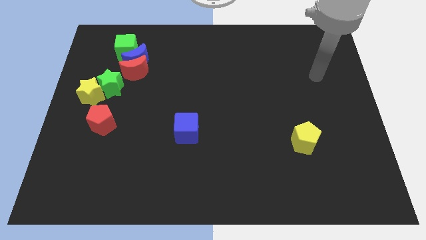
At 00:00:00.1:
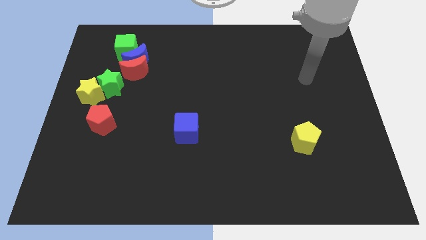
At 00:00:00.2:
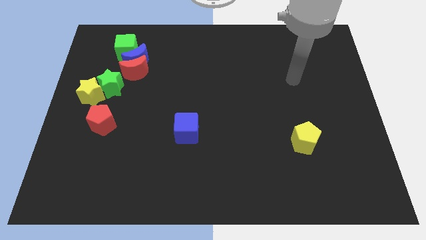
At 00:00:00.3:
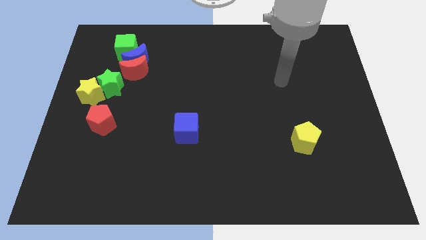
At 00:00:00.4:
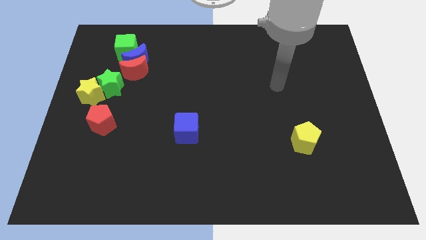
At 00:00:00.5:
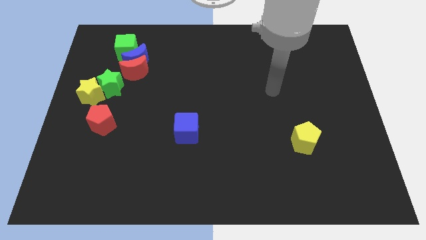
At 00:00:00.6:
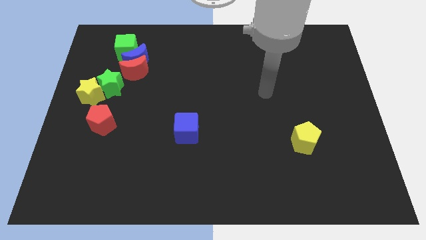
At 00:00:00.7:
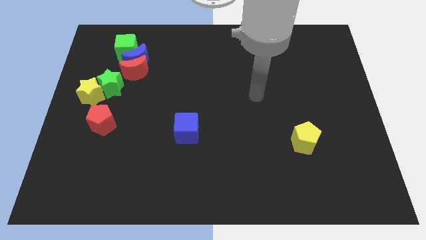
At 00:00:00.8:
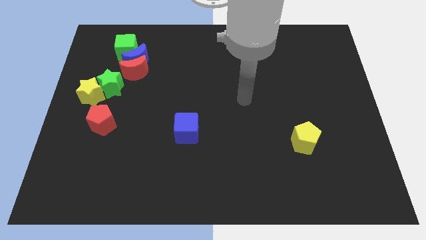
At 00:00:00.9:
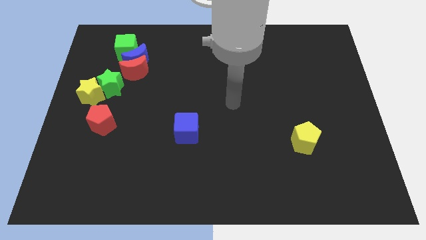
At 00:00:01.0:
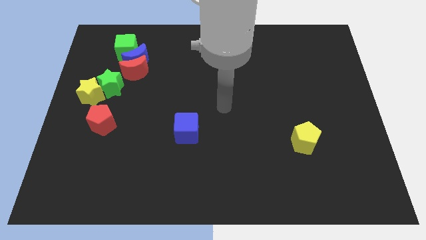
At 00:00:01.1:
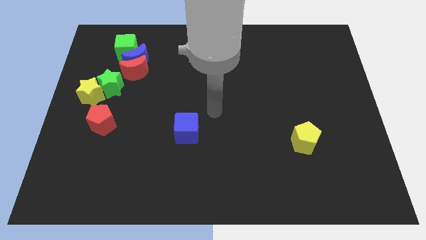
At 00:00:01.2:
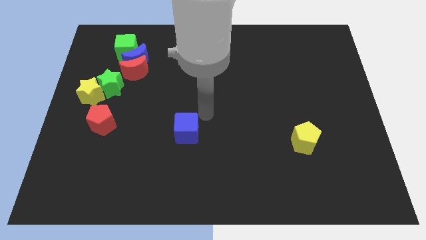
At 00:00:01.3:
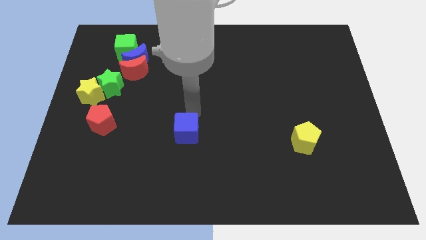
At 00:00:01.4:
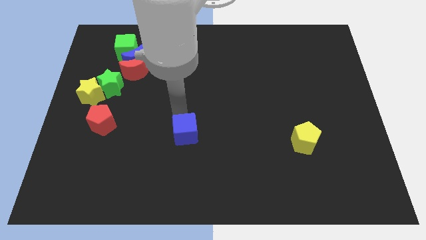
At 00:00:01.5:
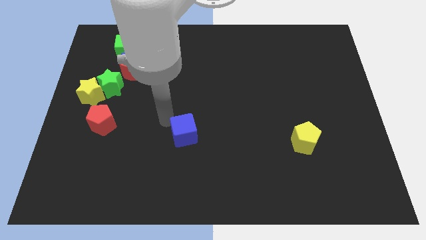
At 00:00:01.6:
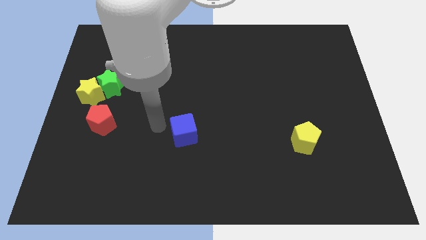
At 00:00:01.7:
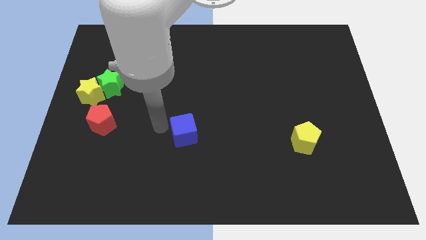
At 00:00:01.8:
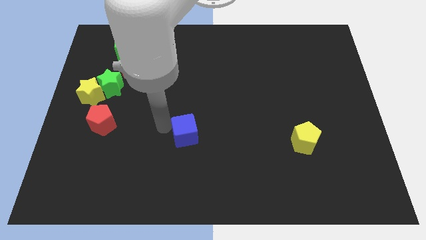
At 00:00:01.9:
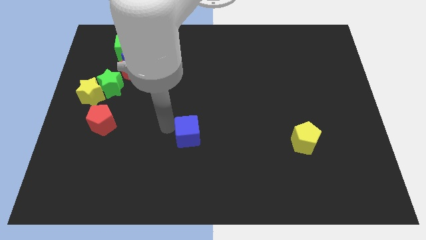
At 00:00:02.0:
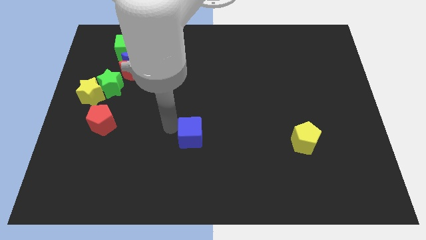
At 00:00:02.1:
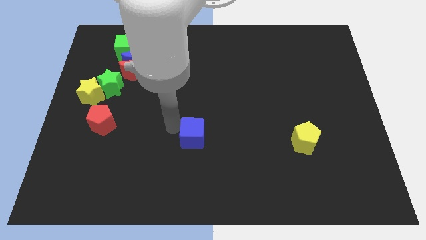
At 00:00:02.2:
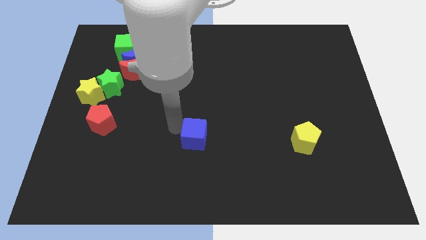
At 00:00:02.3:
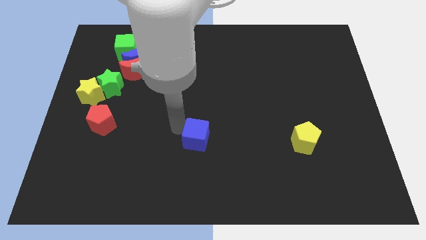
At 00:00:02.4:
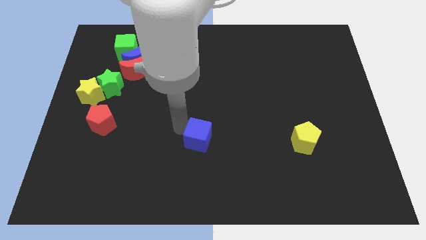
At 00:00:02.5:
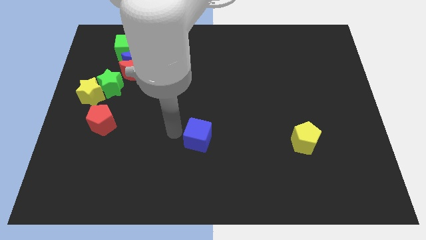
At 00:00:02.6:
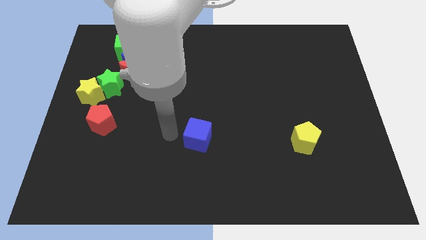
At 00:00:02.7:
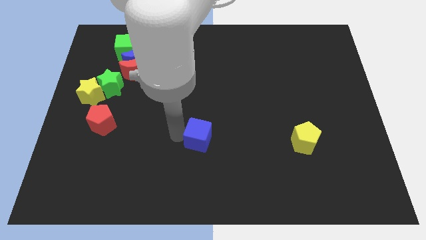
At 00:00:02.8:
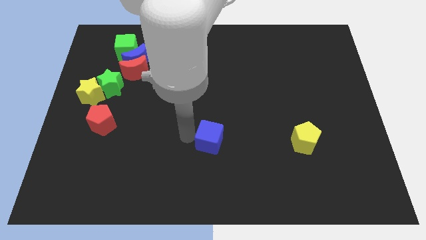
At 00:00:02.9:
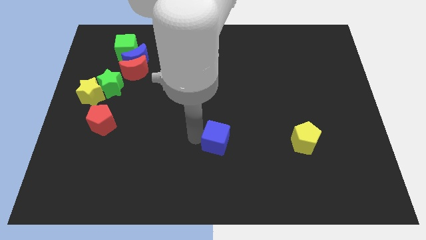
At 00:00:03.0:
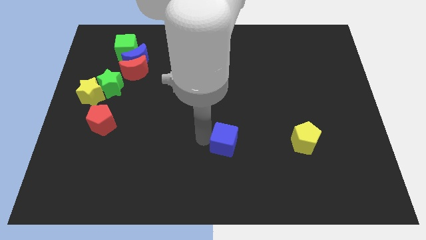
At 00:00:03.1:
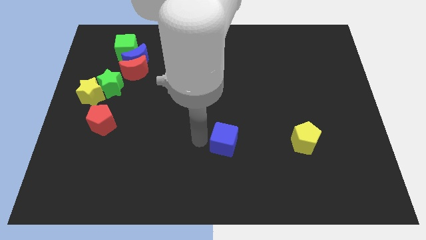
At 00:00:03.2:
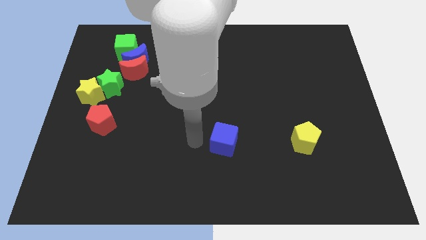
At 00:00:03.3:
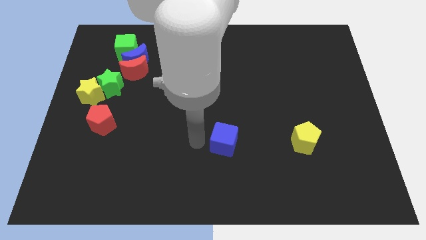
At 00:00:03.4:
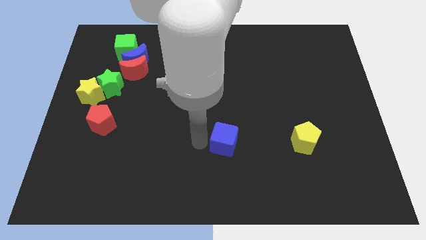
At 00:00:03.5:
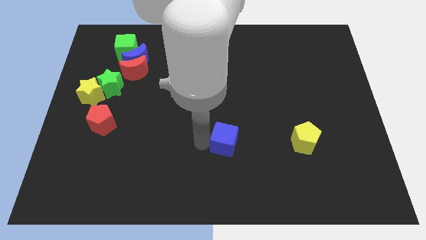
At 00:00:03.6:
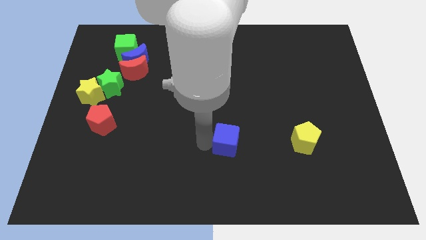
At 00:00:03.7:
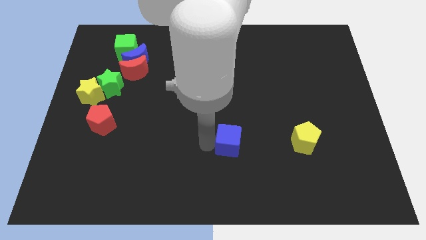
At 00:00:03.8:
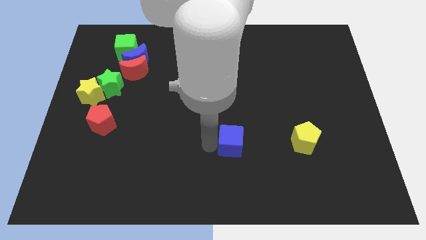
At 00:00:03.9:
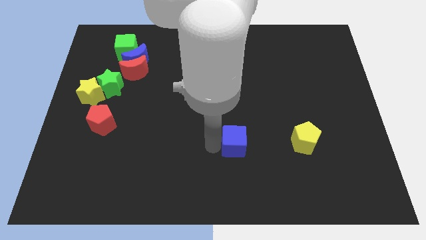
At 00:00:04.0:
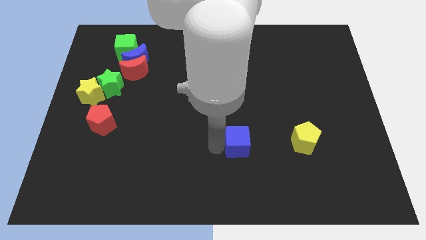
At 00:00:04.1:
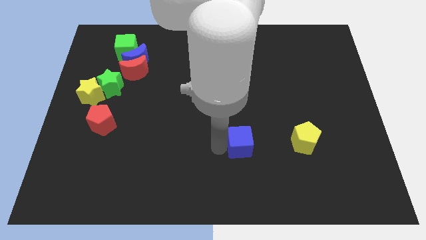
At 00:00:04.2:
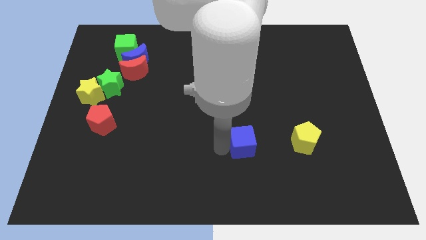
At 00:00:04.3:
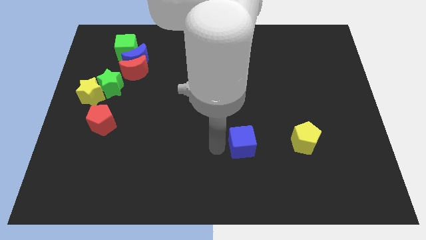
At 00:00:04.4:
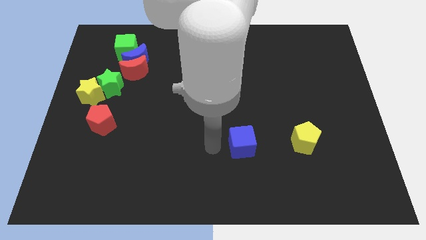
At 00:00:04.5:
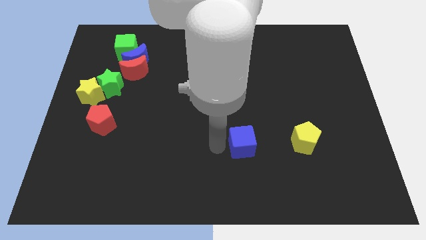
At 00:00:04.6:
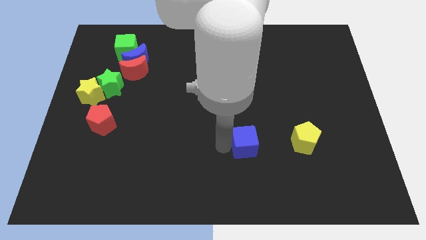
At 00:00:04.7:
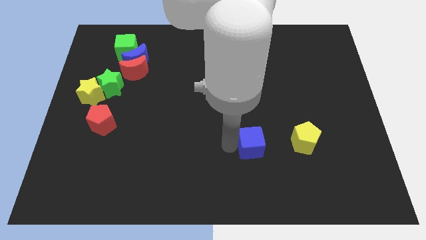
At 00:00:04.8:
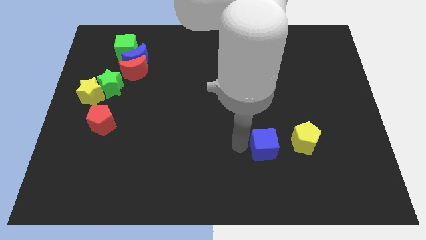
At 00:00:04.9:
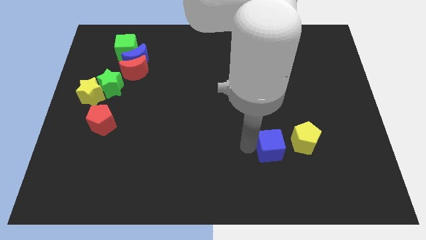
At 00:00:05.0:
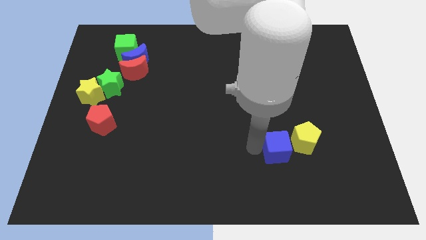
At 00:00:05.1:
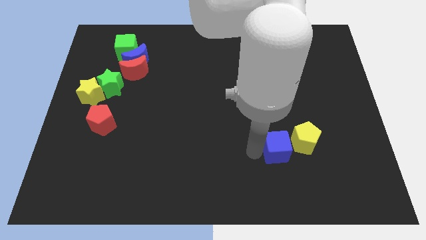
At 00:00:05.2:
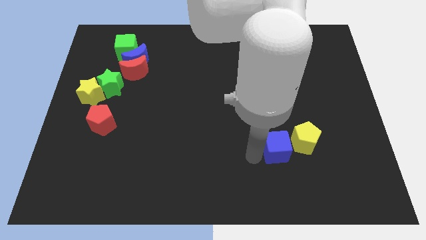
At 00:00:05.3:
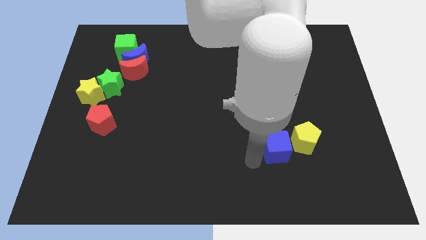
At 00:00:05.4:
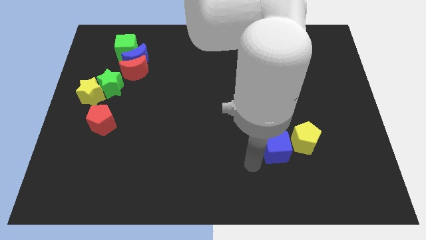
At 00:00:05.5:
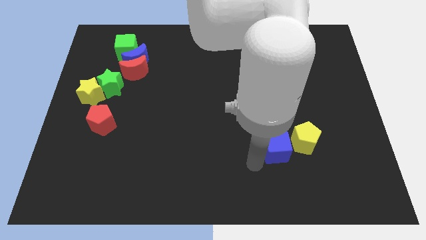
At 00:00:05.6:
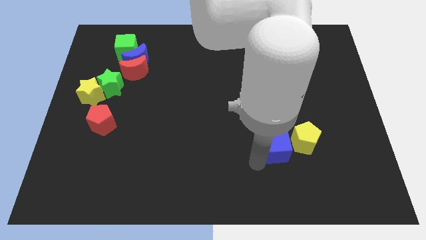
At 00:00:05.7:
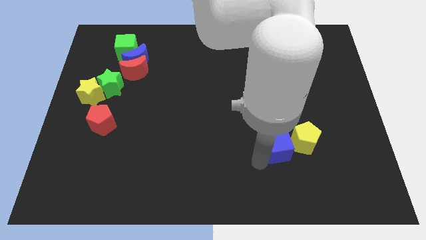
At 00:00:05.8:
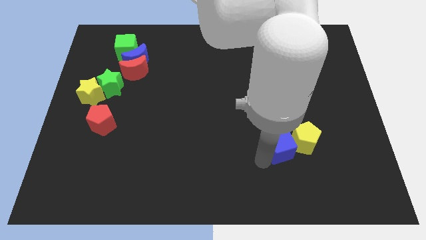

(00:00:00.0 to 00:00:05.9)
move the blue cube towards the yellow pentagon

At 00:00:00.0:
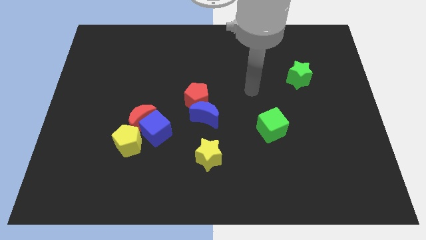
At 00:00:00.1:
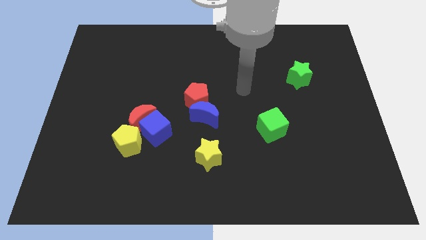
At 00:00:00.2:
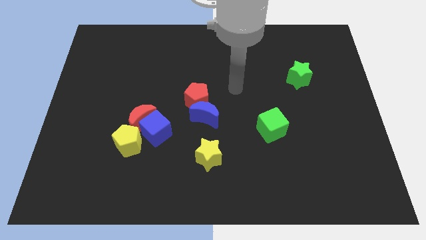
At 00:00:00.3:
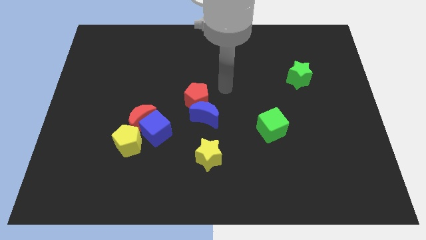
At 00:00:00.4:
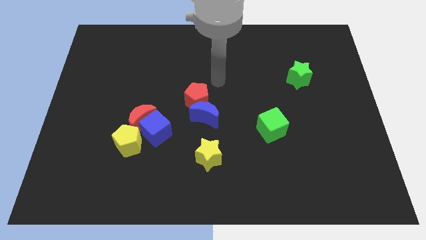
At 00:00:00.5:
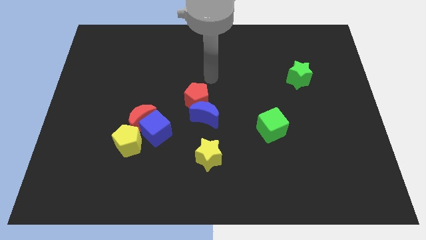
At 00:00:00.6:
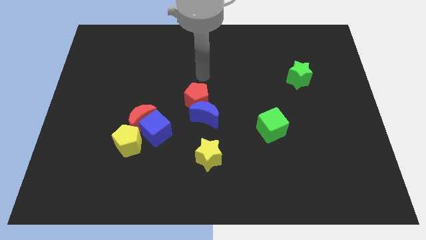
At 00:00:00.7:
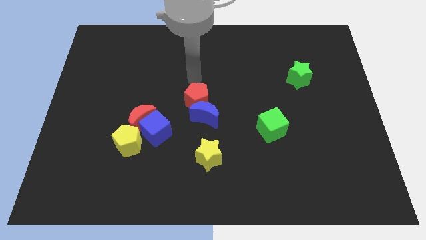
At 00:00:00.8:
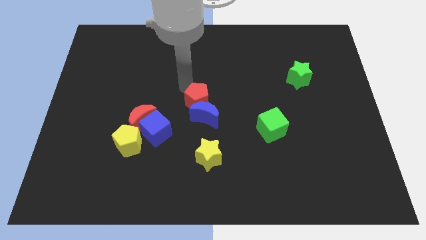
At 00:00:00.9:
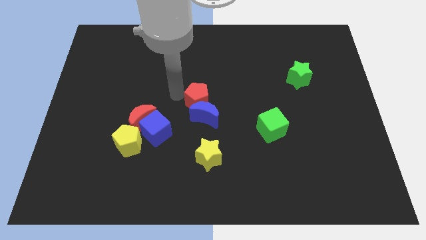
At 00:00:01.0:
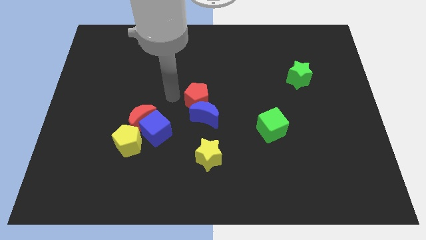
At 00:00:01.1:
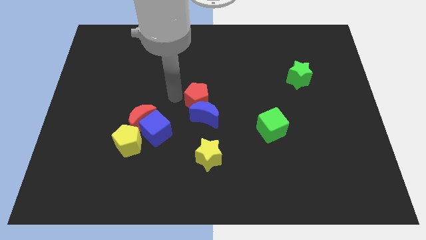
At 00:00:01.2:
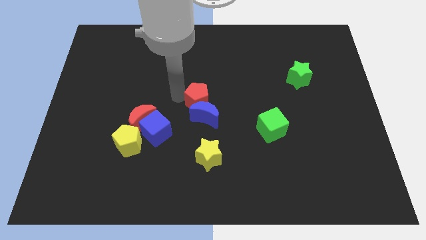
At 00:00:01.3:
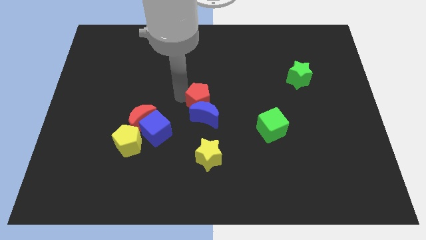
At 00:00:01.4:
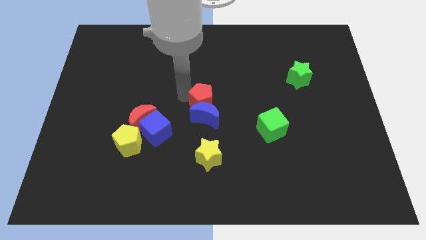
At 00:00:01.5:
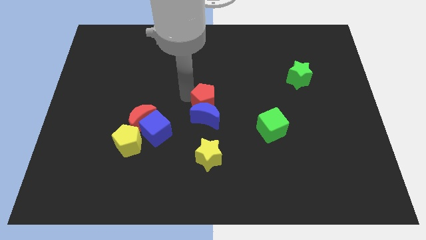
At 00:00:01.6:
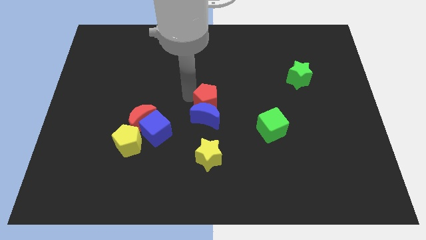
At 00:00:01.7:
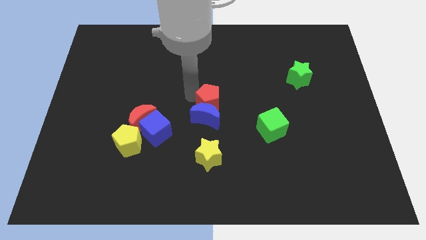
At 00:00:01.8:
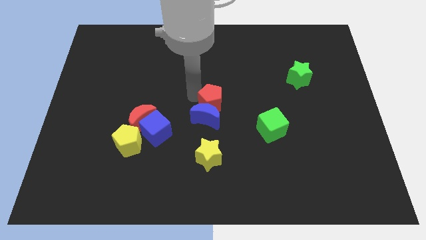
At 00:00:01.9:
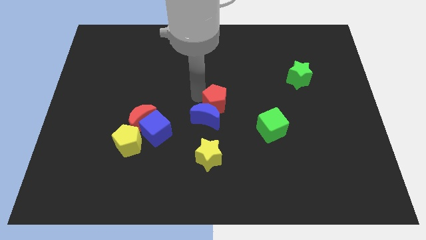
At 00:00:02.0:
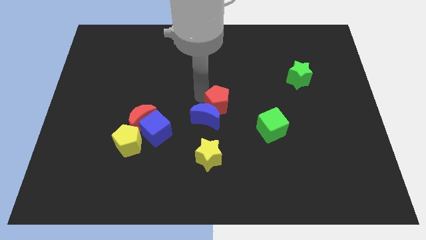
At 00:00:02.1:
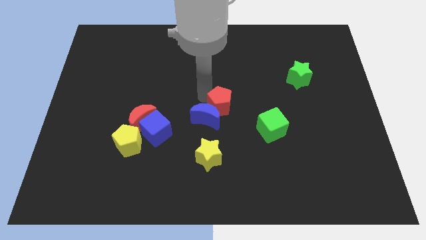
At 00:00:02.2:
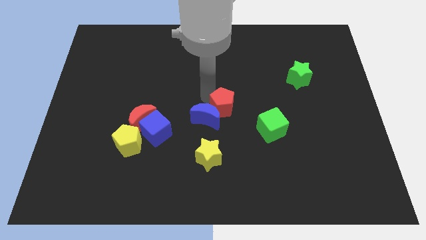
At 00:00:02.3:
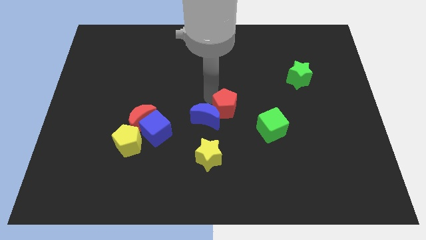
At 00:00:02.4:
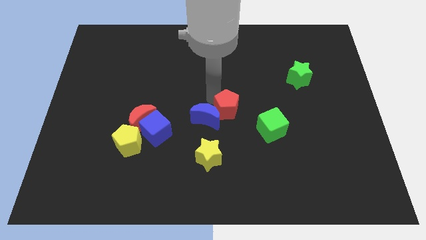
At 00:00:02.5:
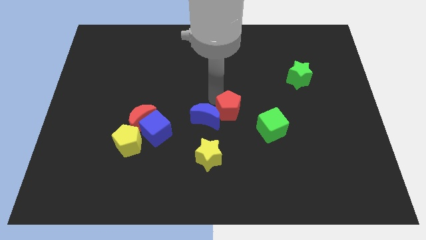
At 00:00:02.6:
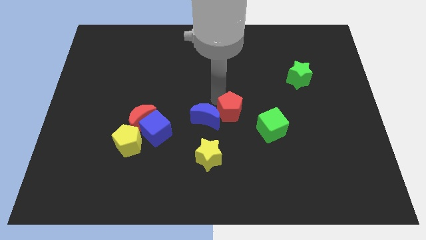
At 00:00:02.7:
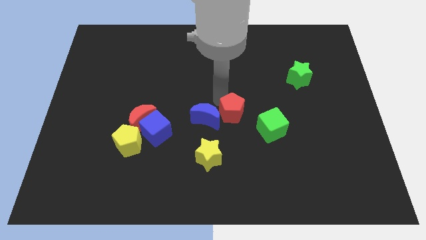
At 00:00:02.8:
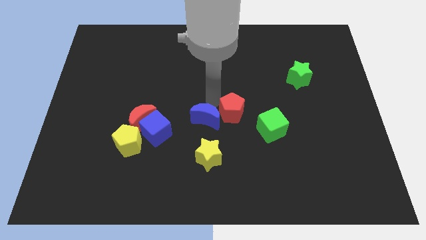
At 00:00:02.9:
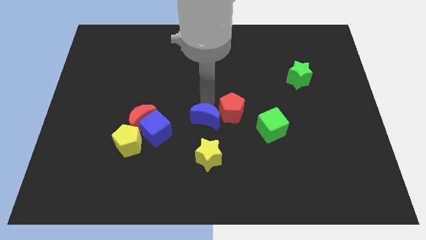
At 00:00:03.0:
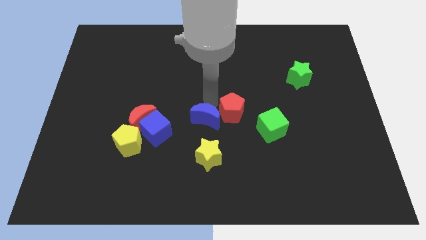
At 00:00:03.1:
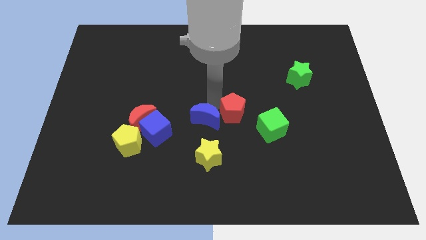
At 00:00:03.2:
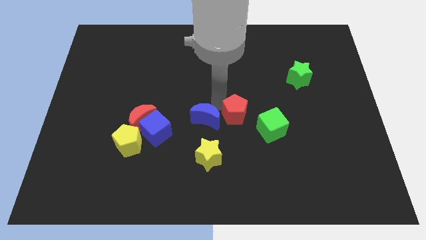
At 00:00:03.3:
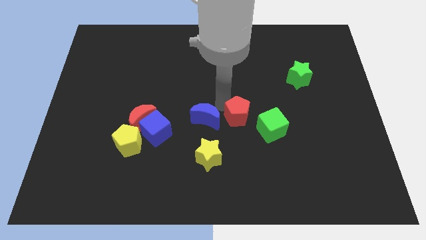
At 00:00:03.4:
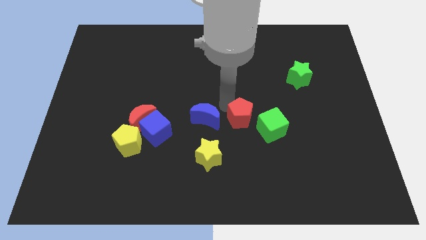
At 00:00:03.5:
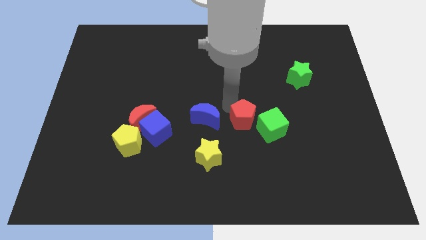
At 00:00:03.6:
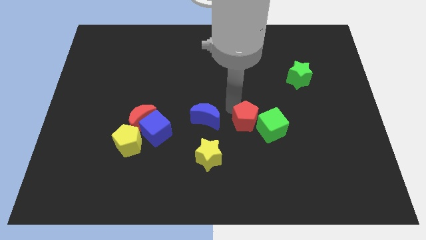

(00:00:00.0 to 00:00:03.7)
put the red pentagon to the green cube
